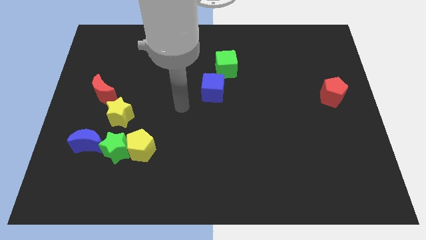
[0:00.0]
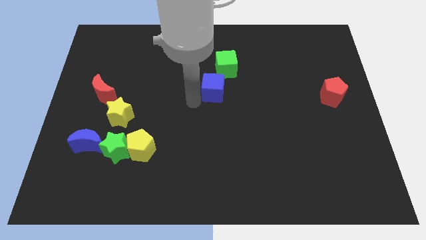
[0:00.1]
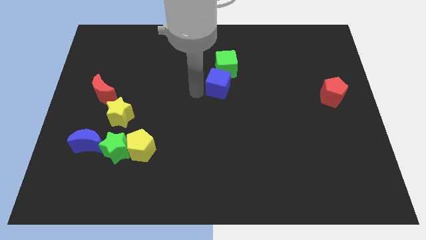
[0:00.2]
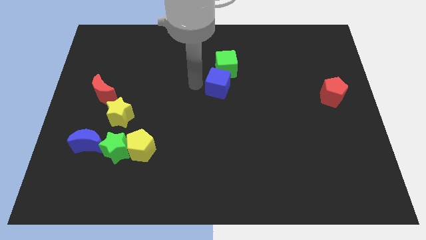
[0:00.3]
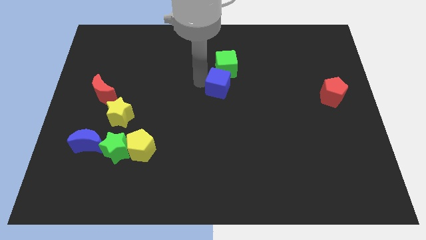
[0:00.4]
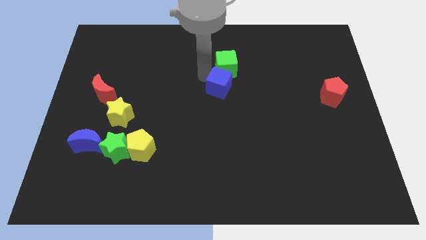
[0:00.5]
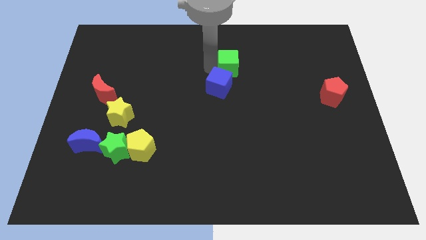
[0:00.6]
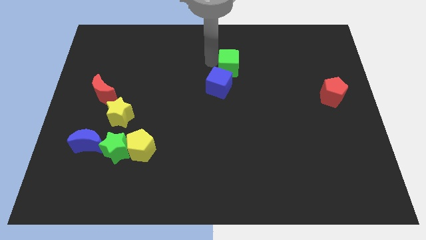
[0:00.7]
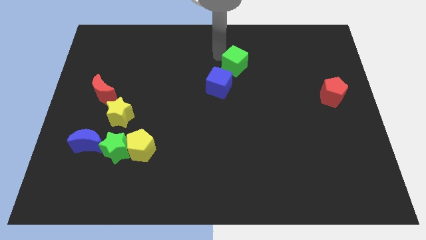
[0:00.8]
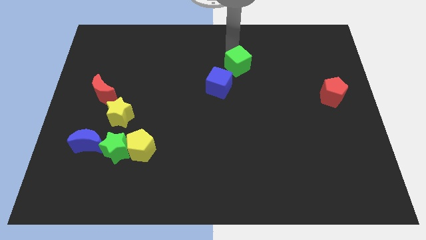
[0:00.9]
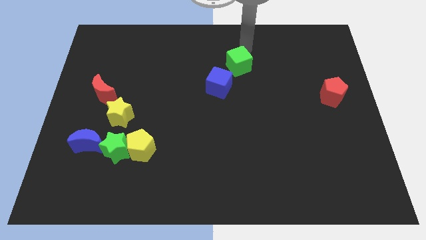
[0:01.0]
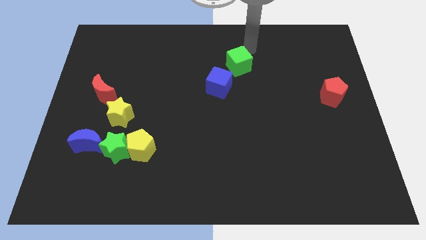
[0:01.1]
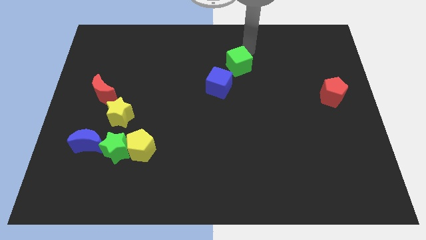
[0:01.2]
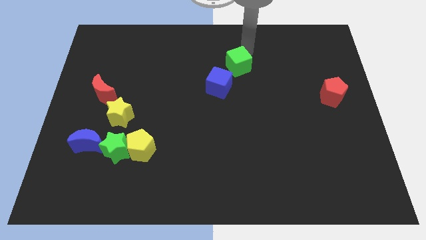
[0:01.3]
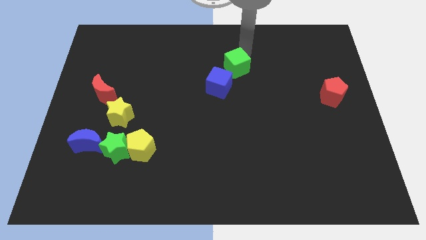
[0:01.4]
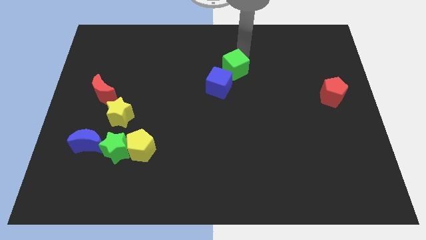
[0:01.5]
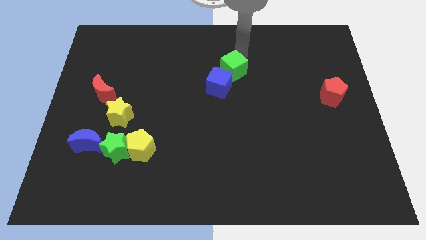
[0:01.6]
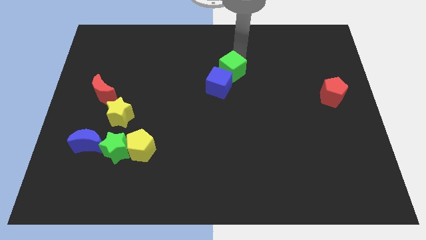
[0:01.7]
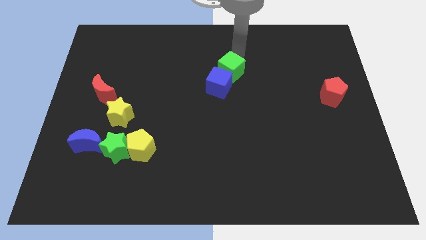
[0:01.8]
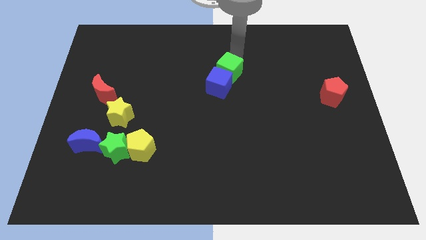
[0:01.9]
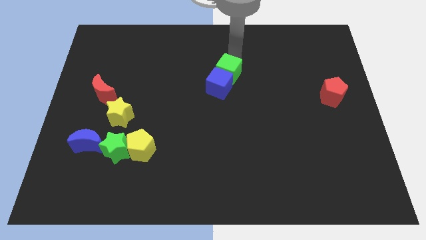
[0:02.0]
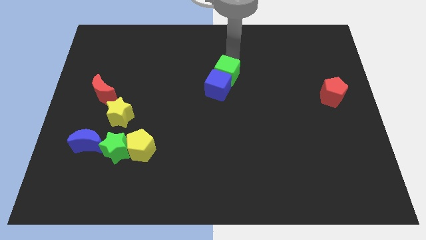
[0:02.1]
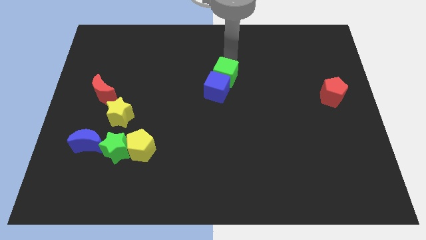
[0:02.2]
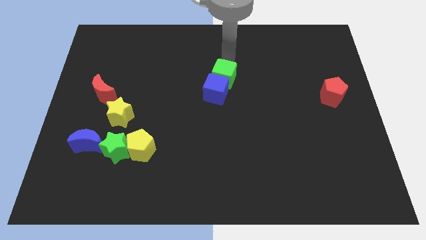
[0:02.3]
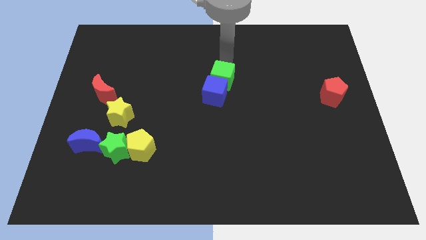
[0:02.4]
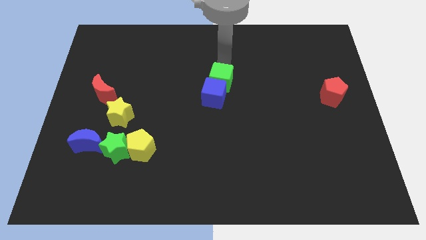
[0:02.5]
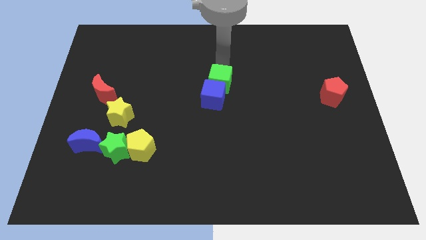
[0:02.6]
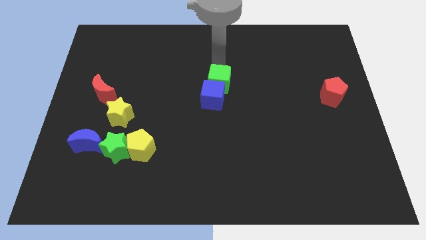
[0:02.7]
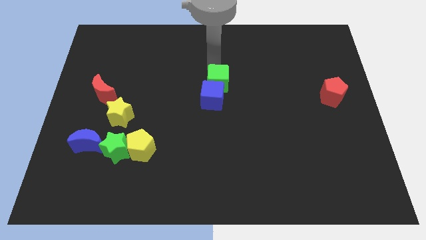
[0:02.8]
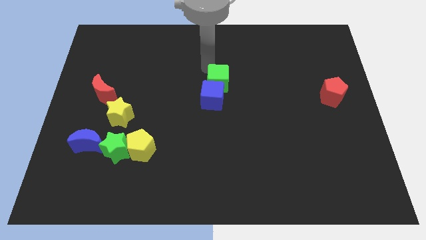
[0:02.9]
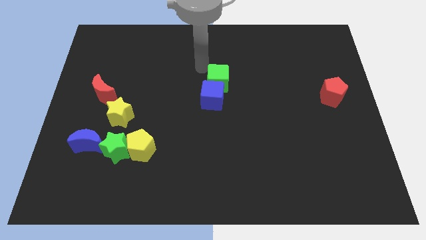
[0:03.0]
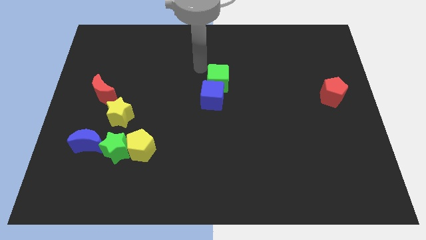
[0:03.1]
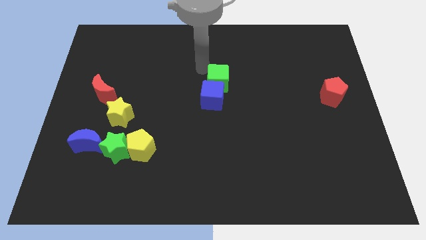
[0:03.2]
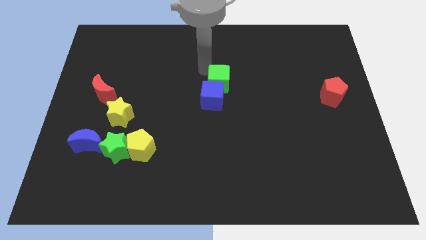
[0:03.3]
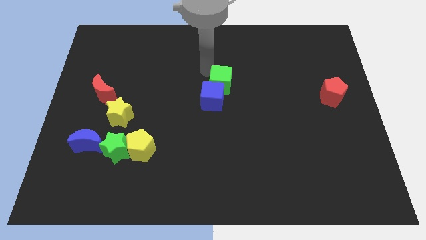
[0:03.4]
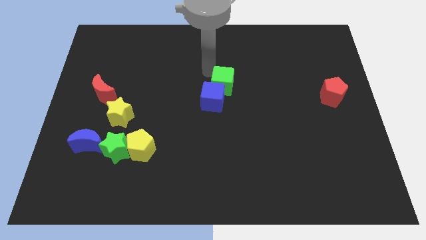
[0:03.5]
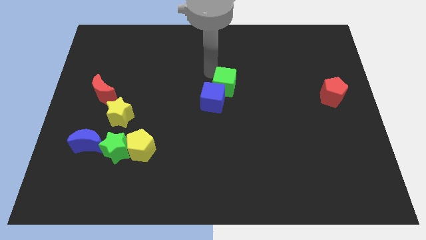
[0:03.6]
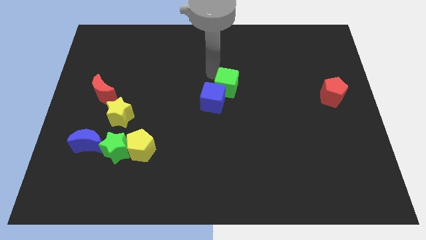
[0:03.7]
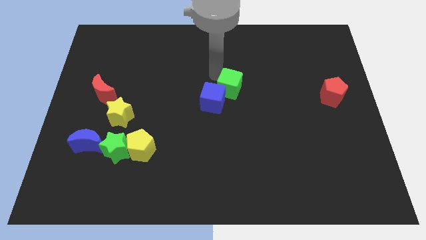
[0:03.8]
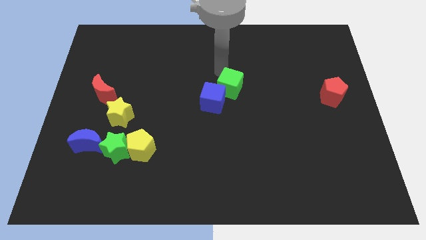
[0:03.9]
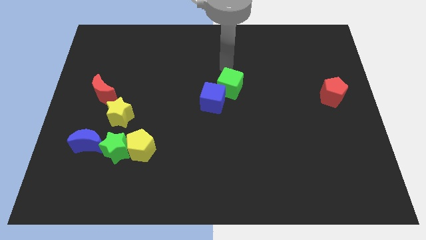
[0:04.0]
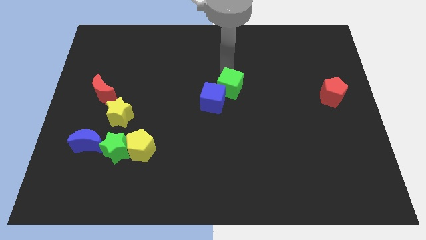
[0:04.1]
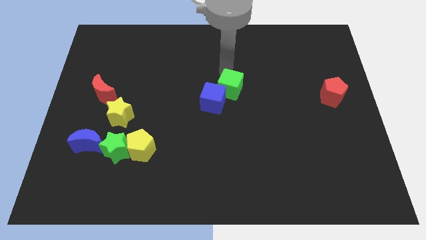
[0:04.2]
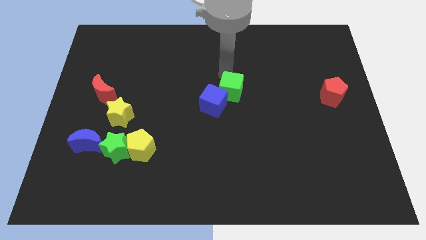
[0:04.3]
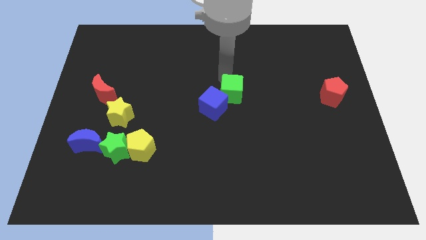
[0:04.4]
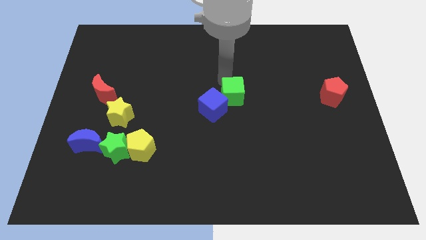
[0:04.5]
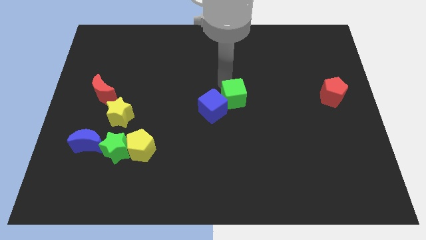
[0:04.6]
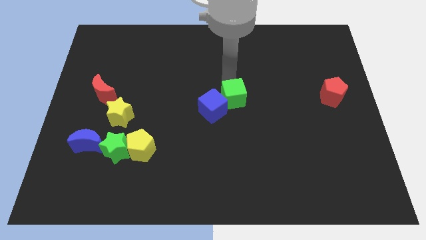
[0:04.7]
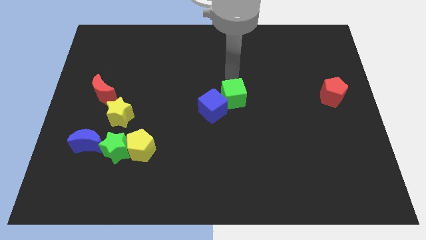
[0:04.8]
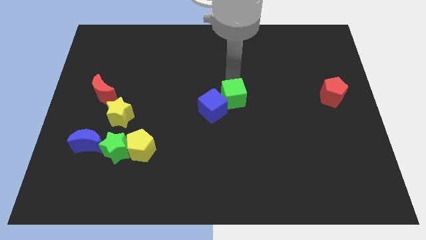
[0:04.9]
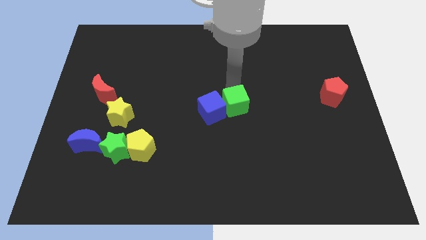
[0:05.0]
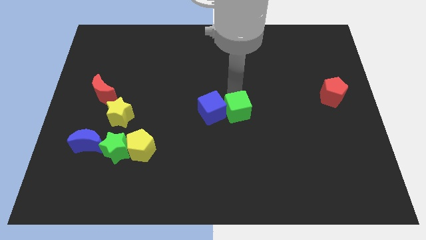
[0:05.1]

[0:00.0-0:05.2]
put the green cube diagonally down and to the right of the blue cube

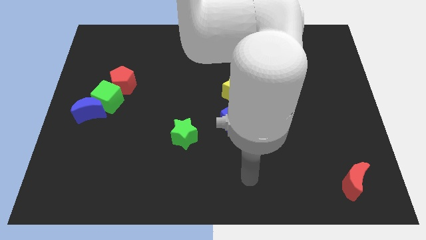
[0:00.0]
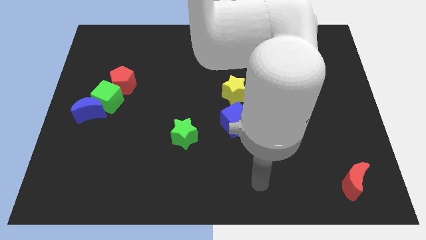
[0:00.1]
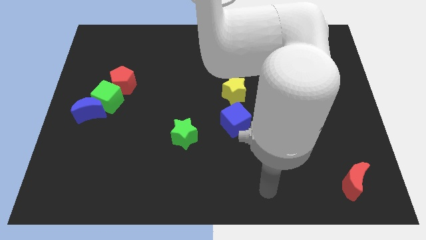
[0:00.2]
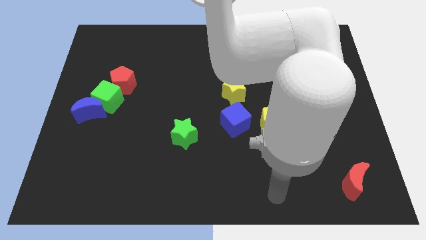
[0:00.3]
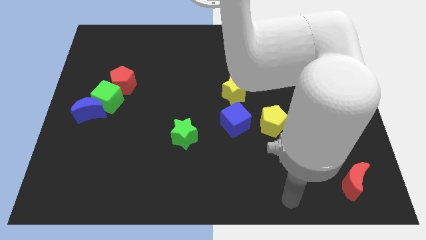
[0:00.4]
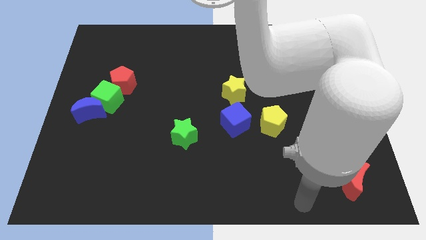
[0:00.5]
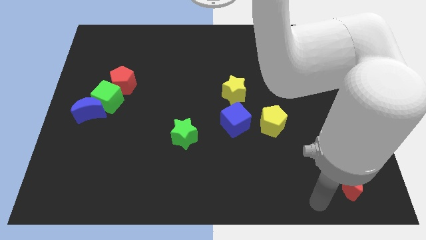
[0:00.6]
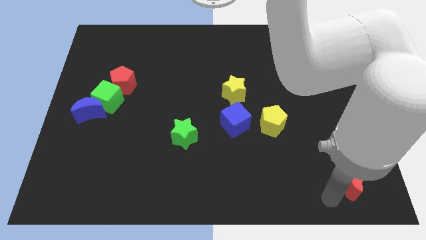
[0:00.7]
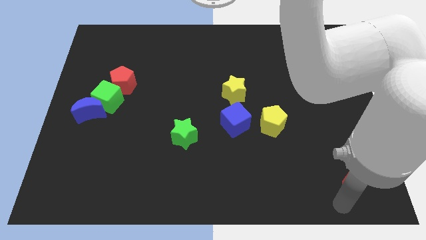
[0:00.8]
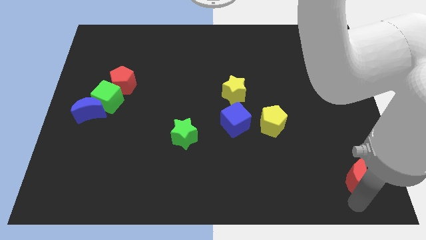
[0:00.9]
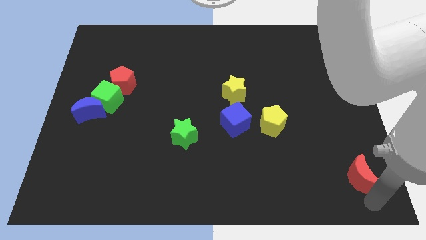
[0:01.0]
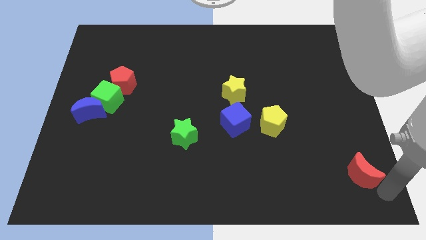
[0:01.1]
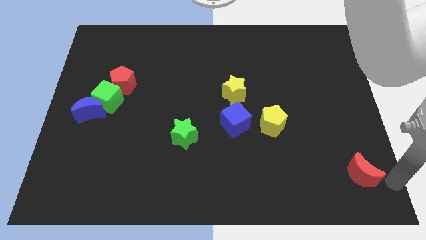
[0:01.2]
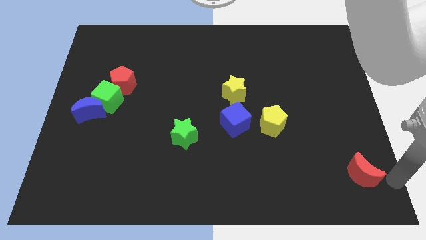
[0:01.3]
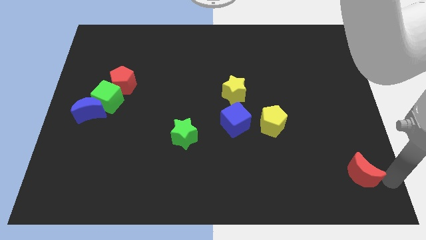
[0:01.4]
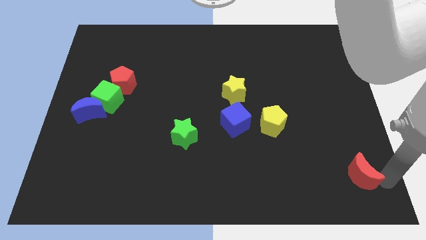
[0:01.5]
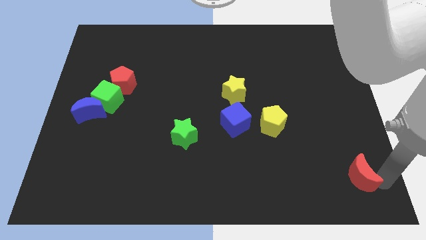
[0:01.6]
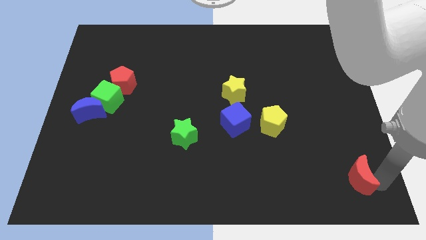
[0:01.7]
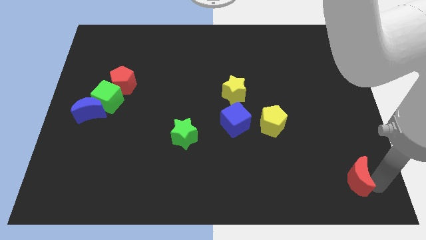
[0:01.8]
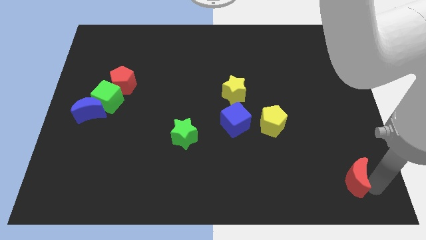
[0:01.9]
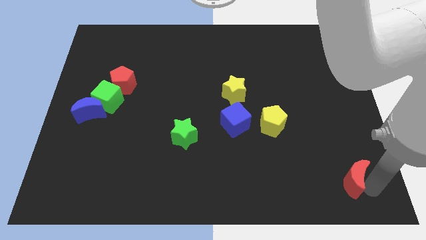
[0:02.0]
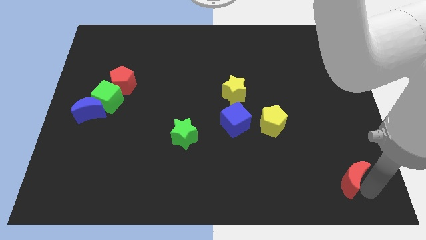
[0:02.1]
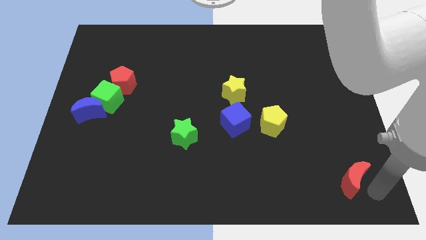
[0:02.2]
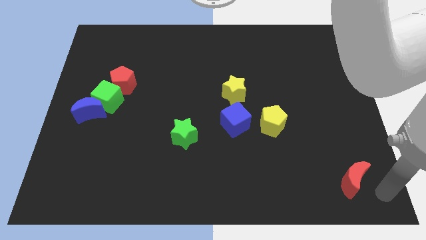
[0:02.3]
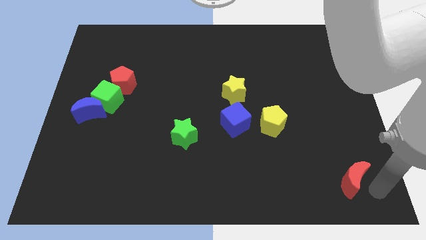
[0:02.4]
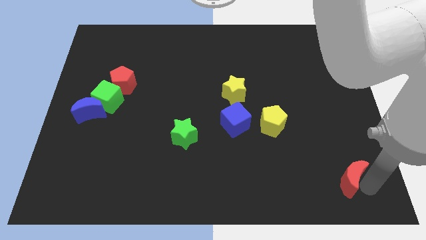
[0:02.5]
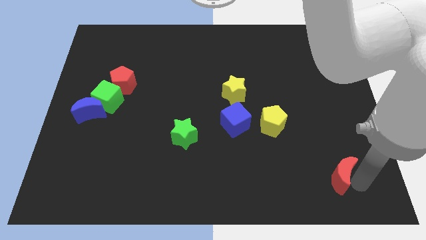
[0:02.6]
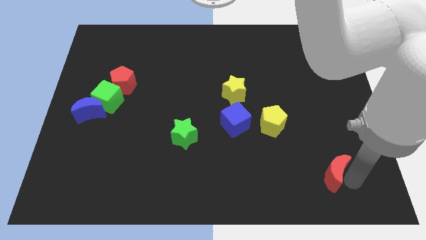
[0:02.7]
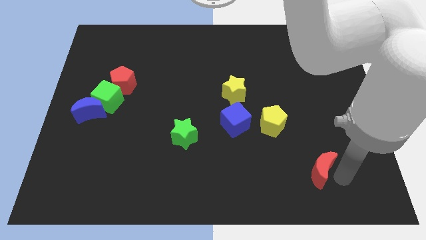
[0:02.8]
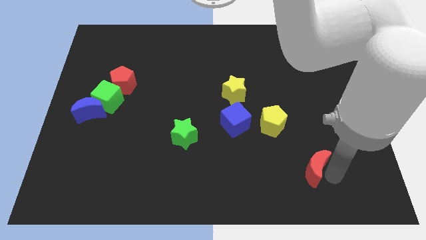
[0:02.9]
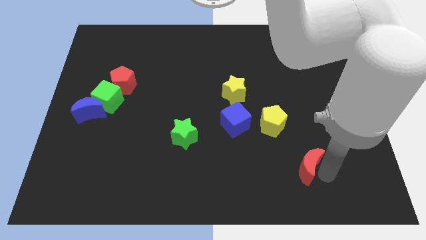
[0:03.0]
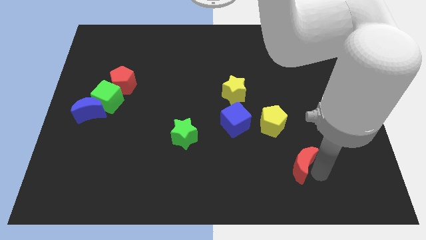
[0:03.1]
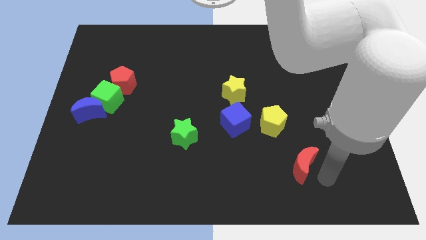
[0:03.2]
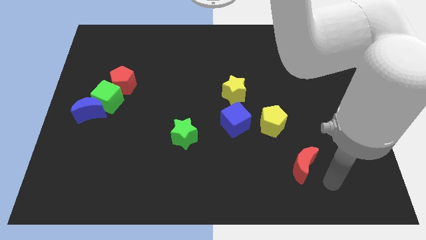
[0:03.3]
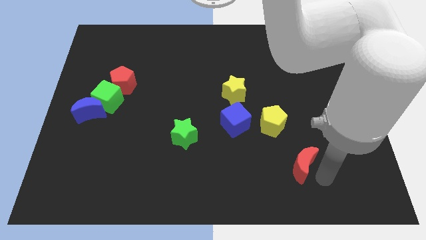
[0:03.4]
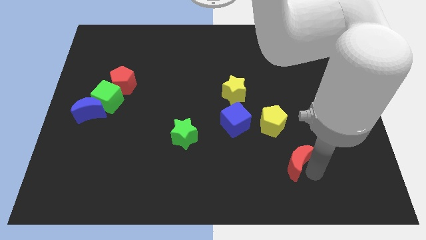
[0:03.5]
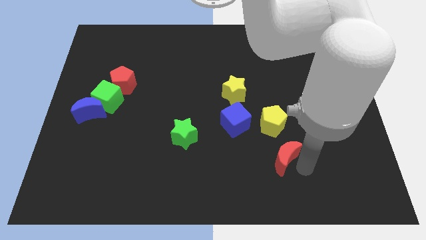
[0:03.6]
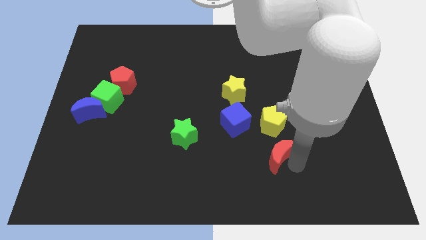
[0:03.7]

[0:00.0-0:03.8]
slide the red moon to the bottom right of the blue cube
